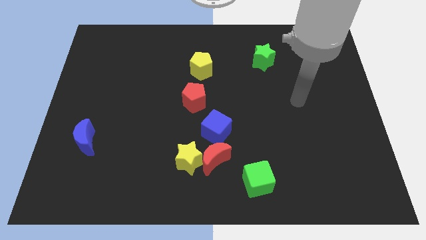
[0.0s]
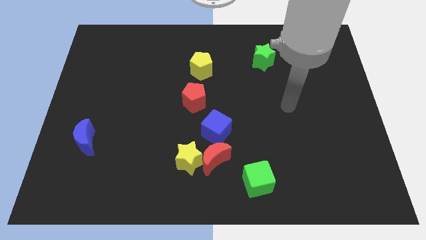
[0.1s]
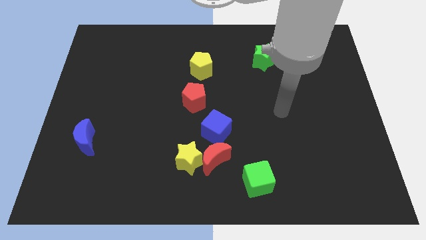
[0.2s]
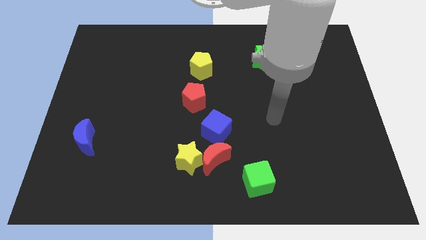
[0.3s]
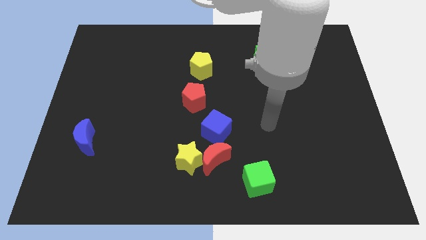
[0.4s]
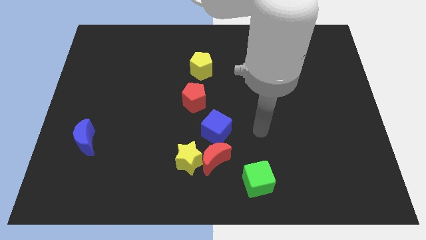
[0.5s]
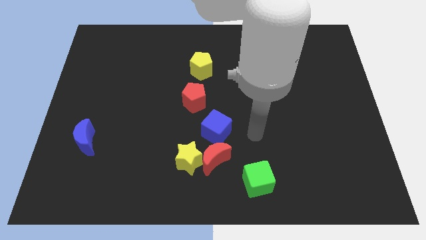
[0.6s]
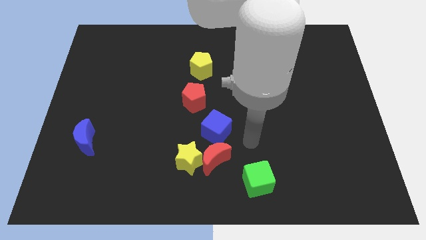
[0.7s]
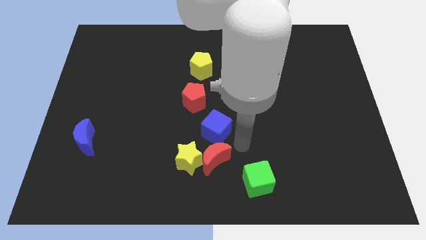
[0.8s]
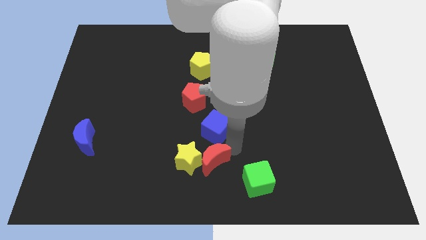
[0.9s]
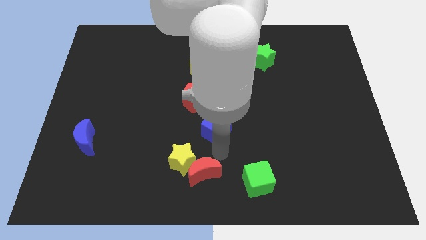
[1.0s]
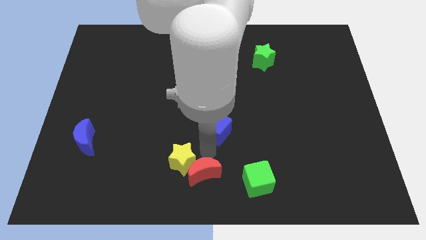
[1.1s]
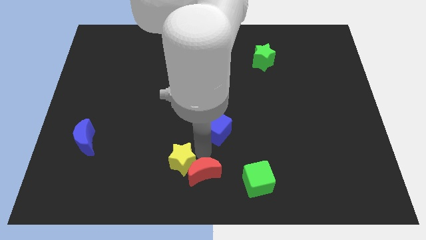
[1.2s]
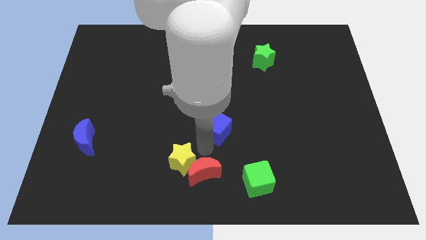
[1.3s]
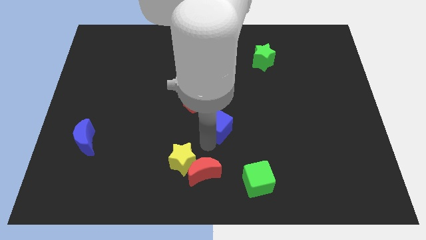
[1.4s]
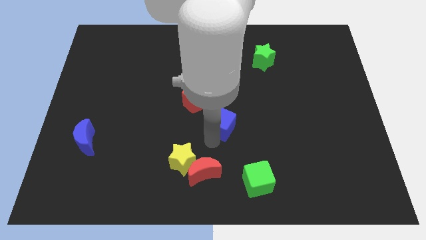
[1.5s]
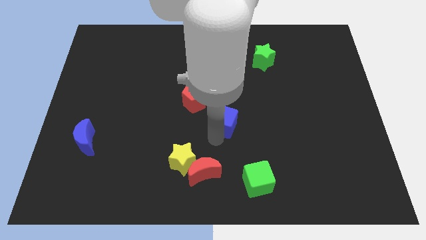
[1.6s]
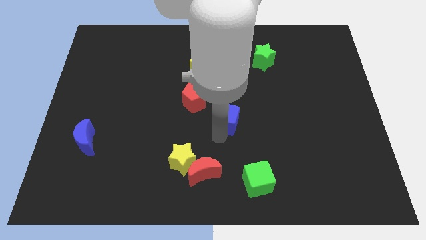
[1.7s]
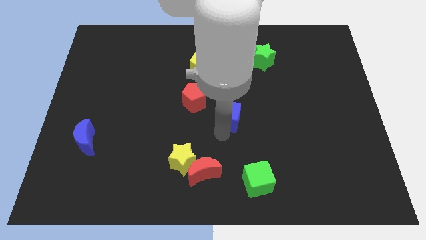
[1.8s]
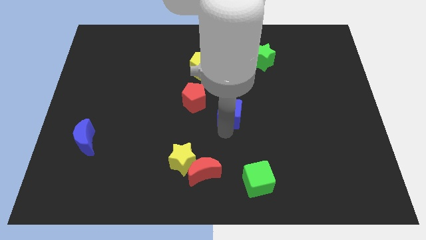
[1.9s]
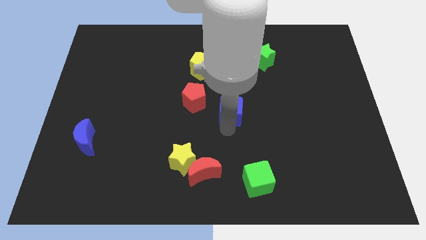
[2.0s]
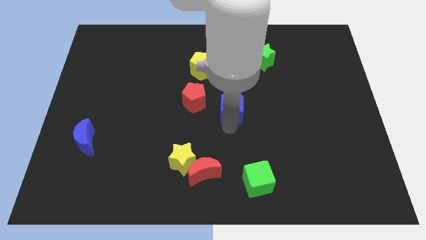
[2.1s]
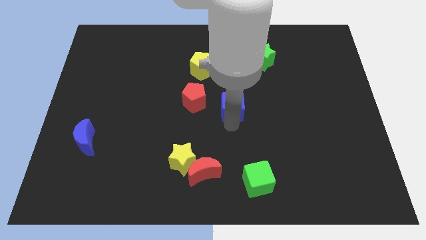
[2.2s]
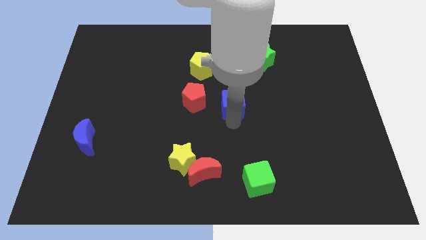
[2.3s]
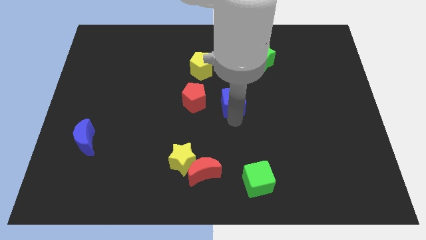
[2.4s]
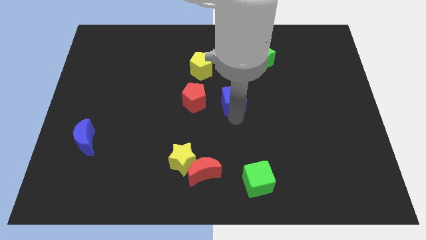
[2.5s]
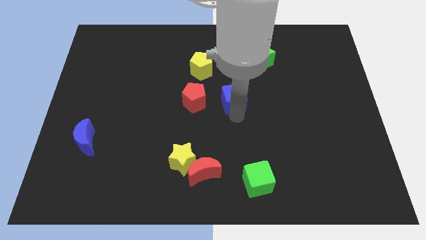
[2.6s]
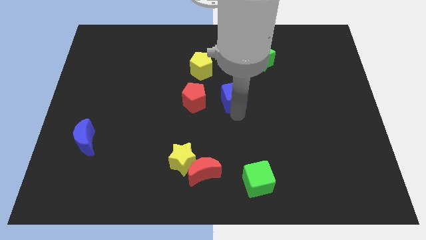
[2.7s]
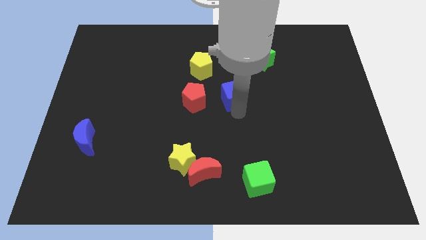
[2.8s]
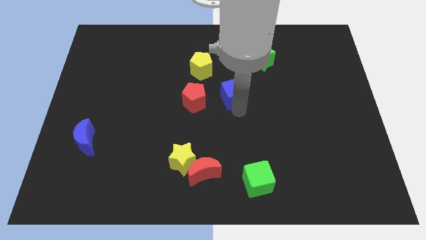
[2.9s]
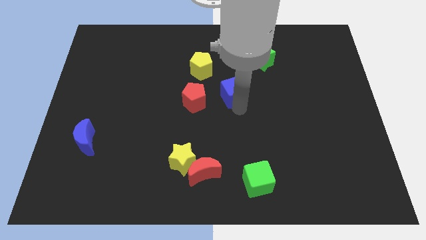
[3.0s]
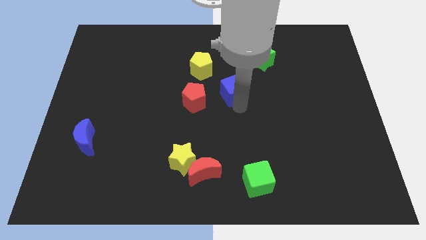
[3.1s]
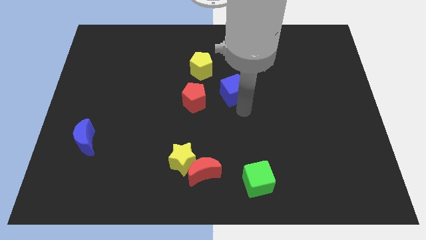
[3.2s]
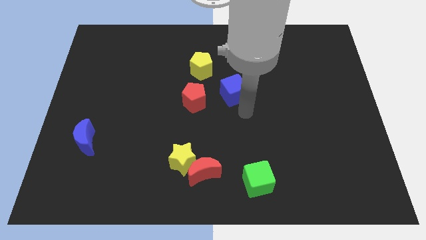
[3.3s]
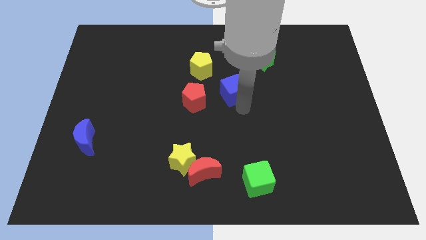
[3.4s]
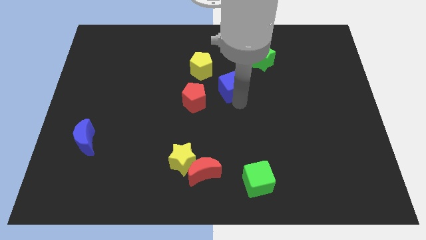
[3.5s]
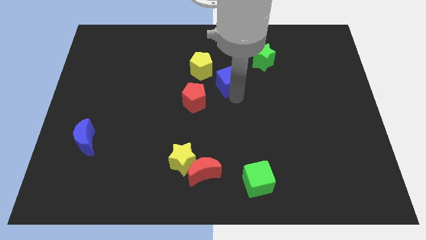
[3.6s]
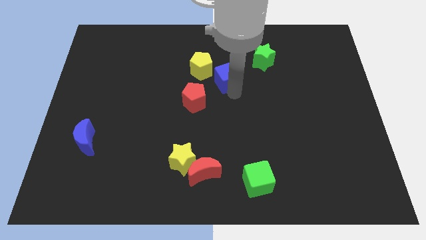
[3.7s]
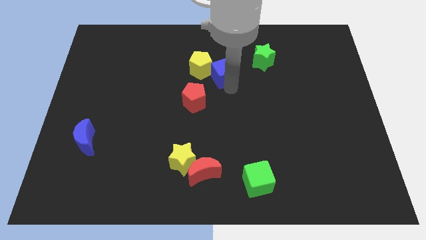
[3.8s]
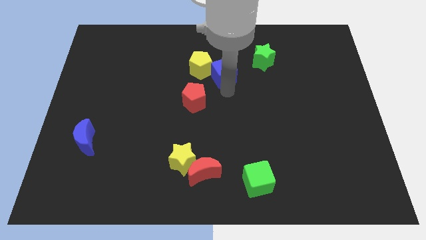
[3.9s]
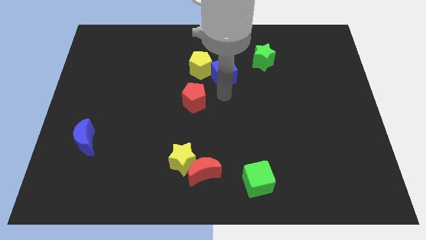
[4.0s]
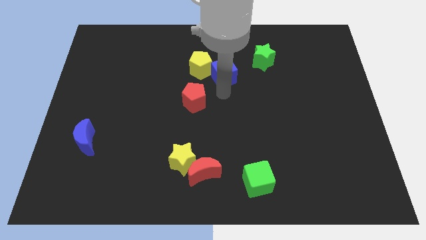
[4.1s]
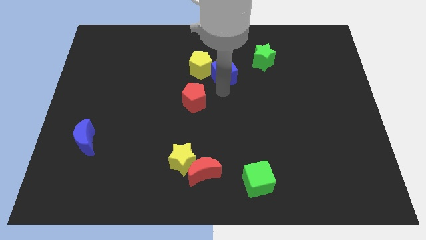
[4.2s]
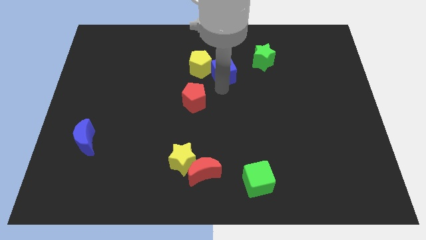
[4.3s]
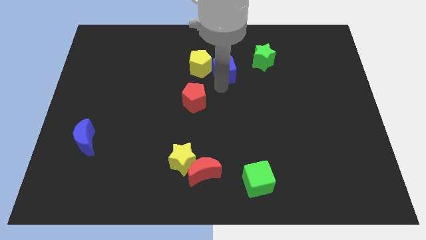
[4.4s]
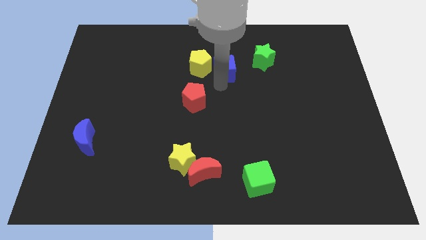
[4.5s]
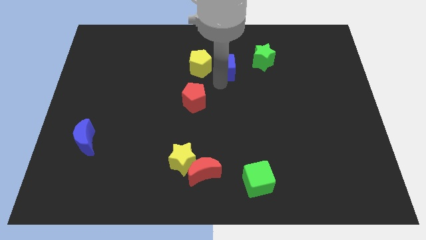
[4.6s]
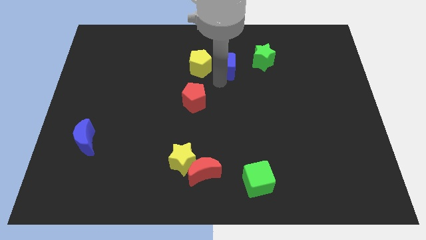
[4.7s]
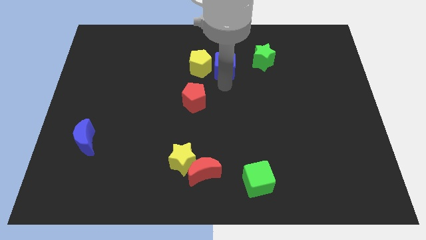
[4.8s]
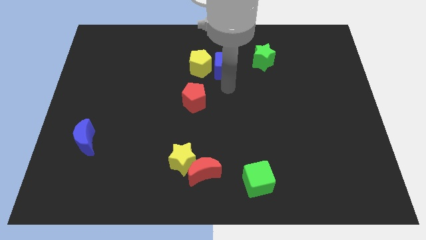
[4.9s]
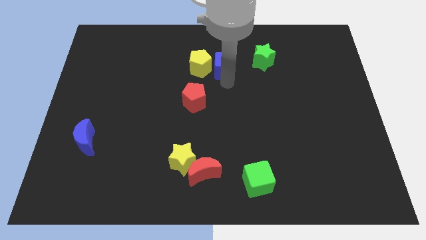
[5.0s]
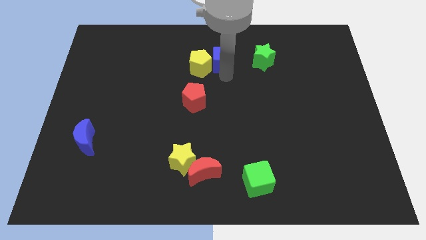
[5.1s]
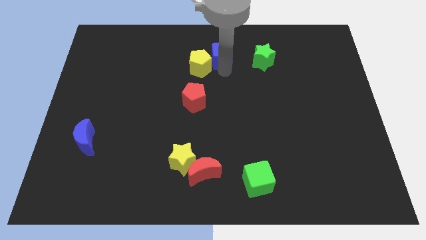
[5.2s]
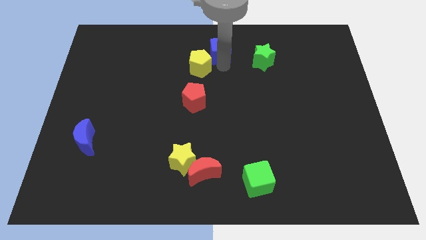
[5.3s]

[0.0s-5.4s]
move the blue cube to the towards your base
